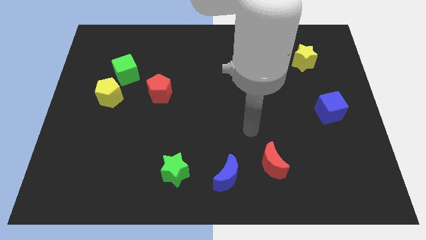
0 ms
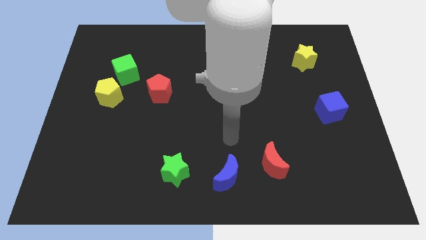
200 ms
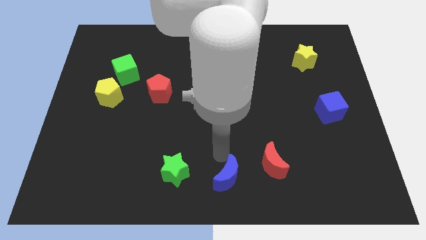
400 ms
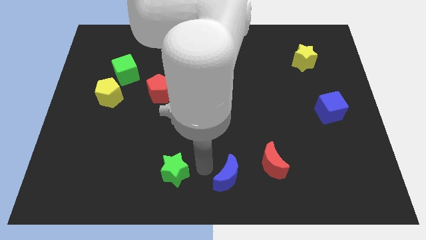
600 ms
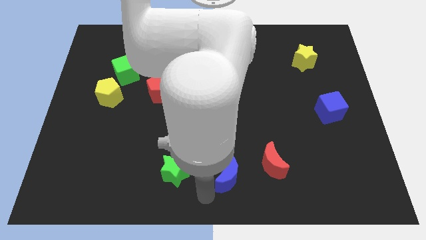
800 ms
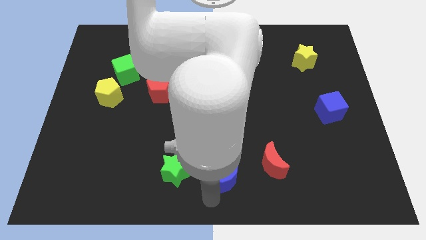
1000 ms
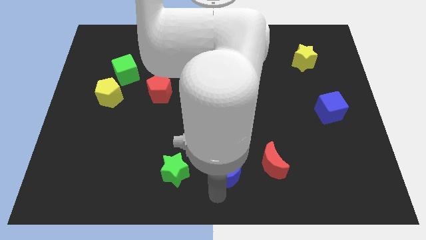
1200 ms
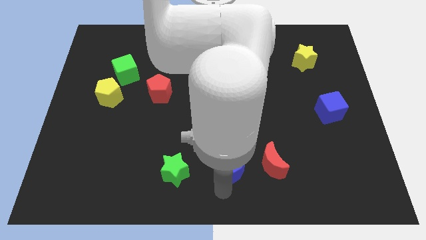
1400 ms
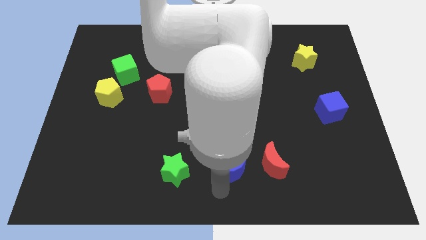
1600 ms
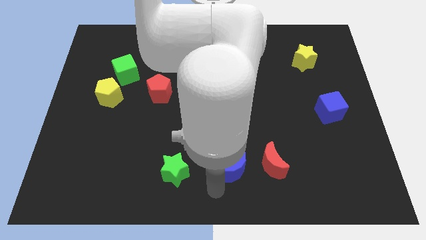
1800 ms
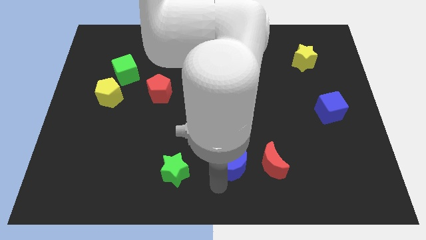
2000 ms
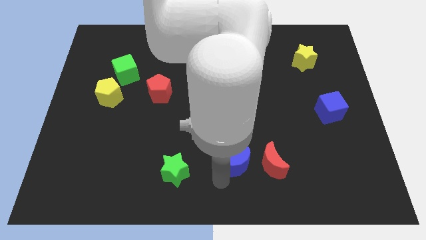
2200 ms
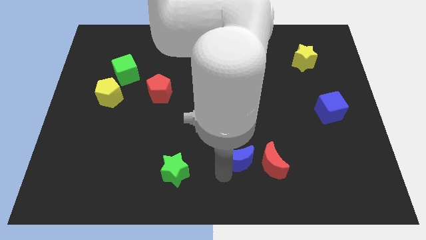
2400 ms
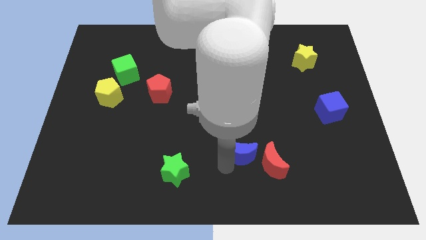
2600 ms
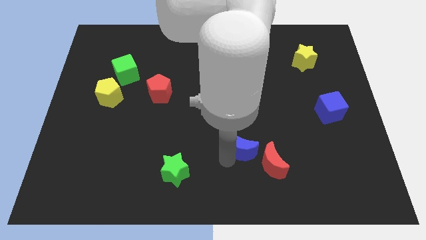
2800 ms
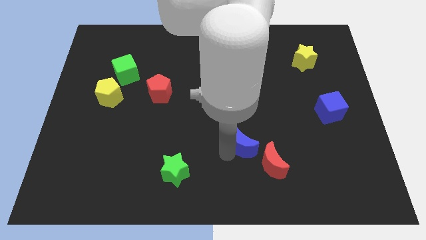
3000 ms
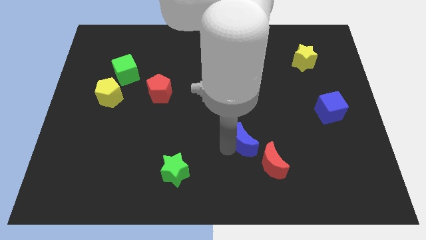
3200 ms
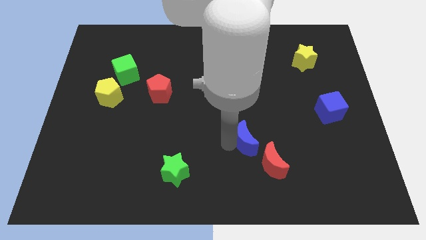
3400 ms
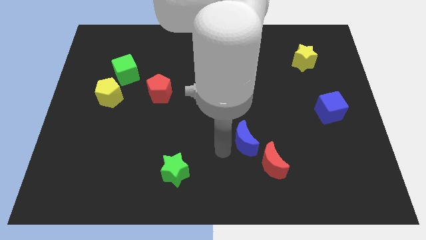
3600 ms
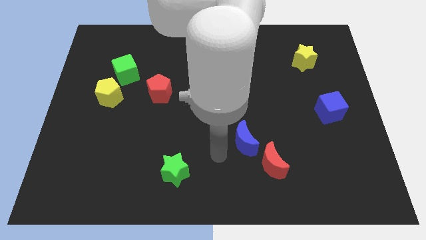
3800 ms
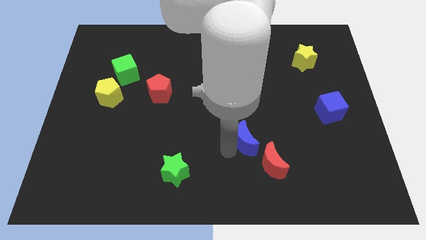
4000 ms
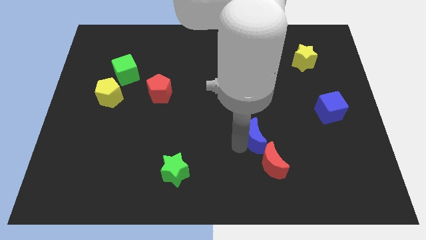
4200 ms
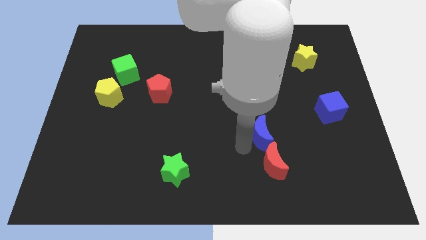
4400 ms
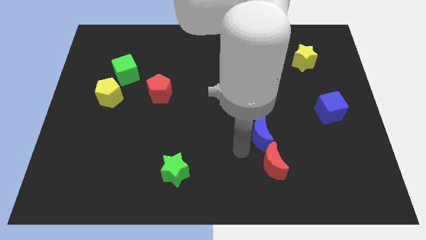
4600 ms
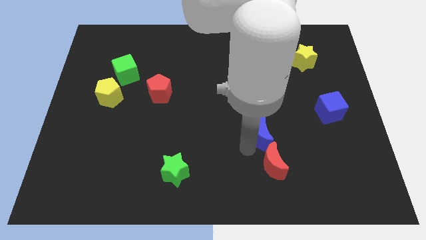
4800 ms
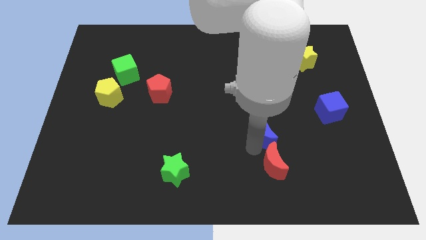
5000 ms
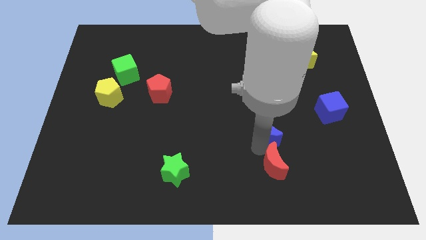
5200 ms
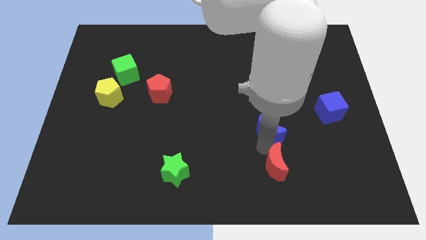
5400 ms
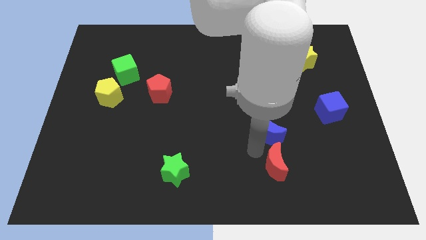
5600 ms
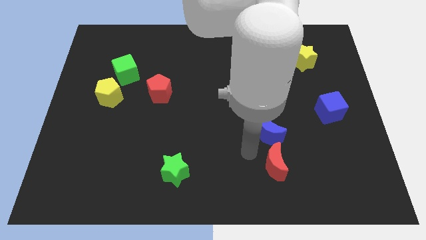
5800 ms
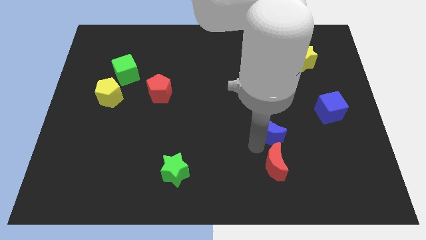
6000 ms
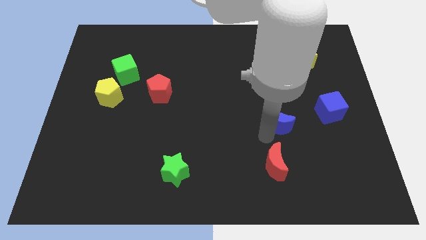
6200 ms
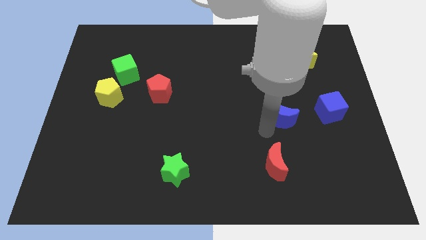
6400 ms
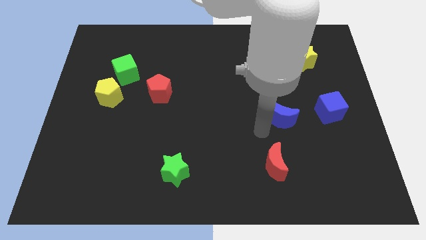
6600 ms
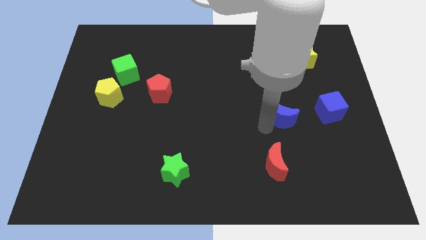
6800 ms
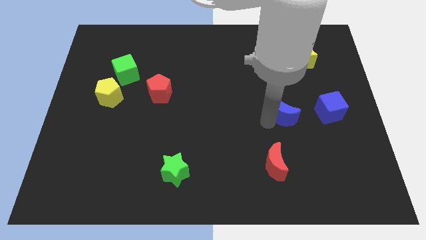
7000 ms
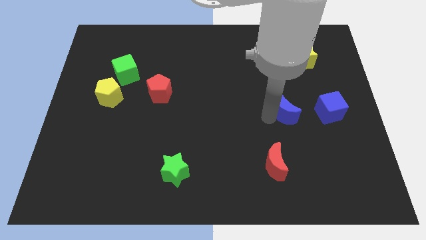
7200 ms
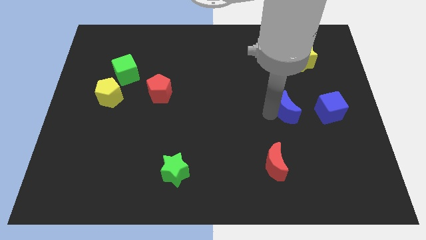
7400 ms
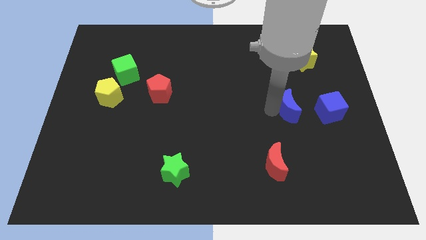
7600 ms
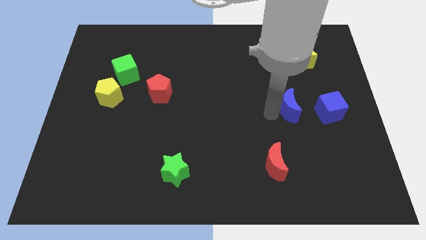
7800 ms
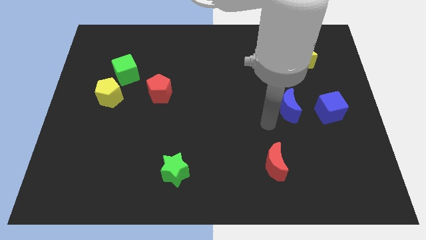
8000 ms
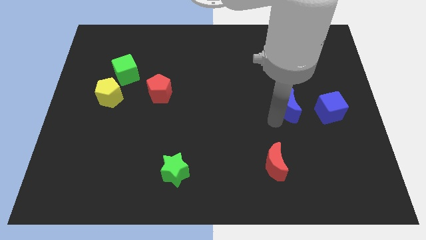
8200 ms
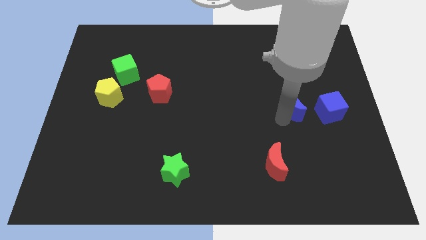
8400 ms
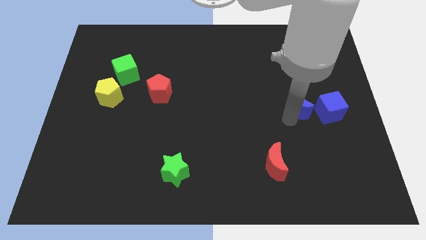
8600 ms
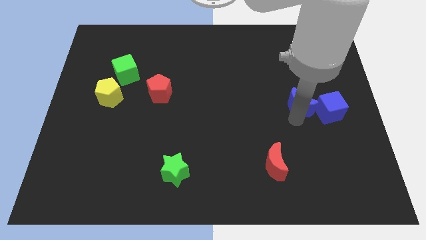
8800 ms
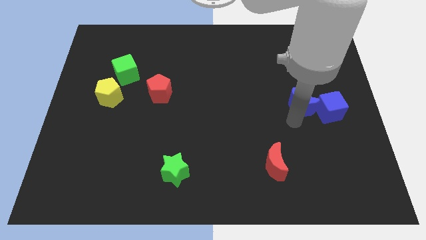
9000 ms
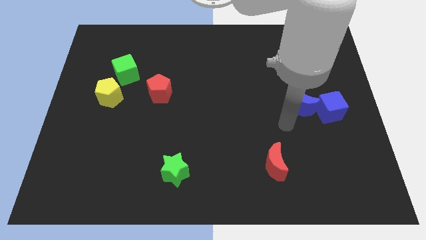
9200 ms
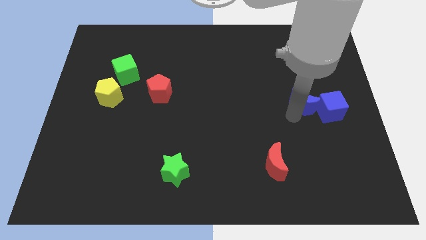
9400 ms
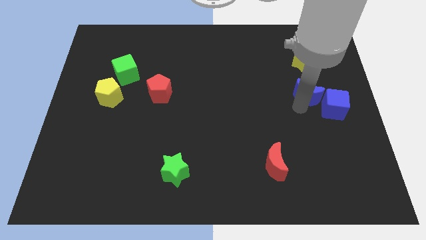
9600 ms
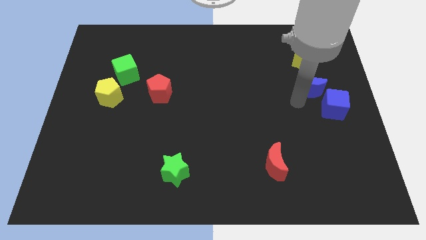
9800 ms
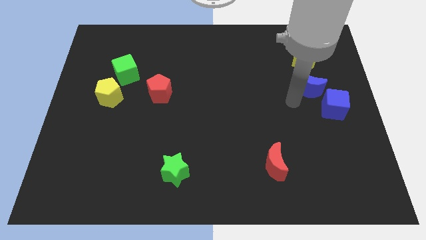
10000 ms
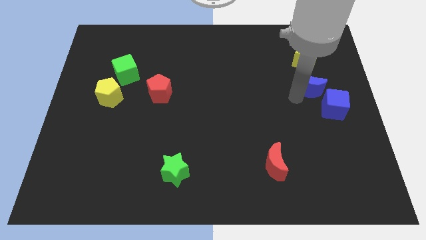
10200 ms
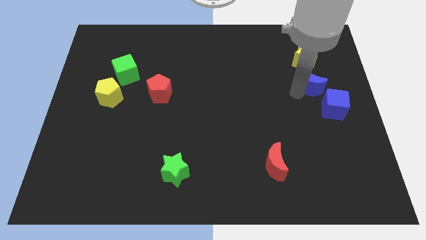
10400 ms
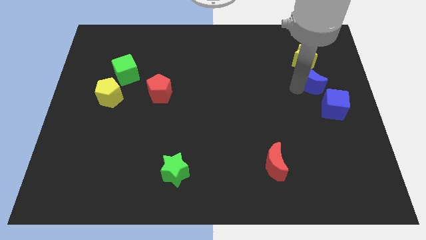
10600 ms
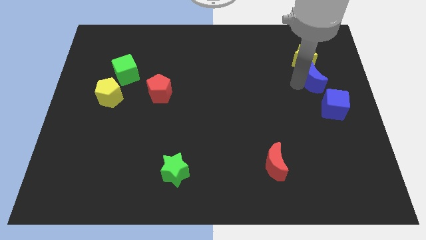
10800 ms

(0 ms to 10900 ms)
put the blue moon to the bottom right of the yellow star

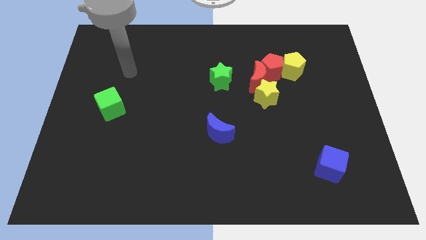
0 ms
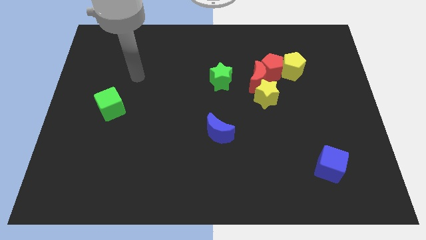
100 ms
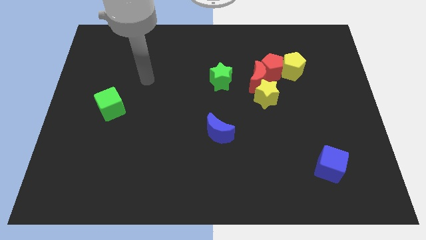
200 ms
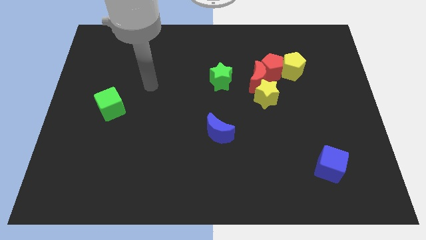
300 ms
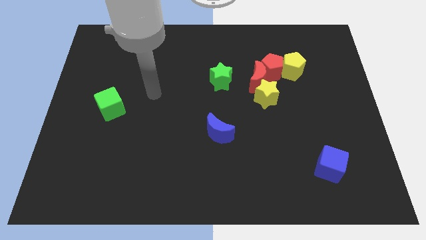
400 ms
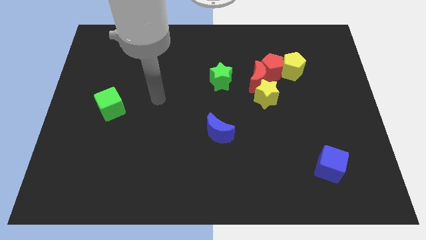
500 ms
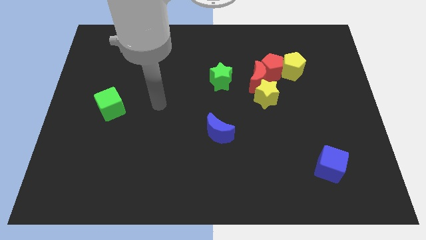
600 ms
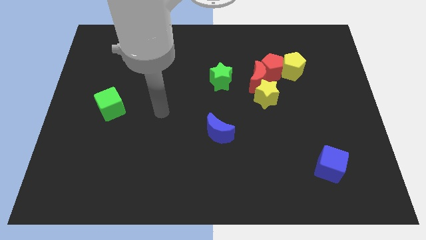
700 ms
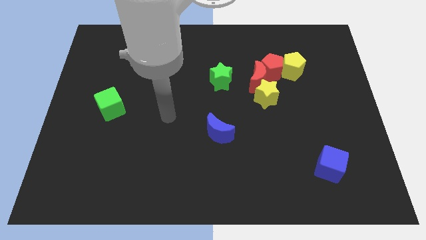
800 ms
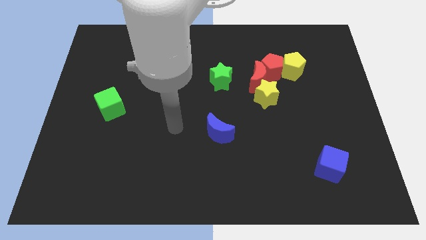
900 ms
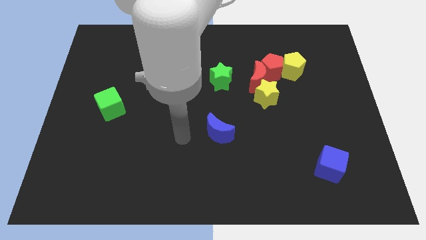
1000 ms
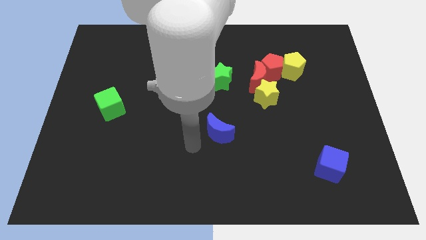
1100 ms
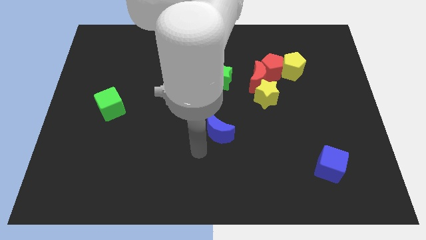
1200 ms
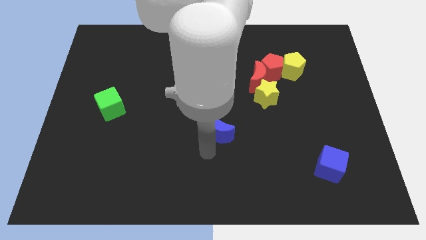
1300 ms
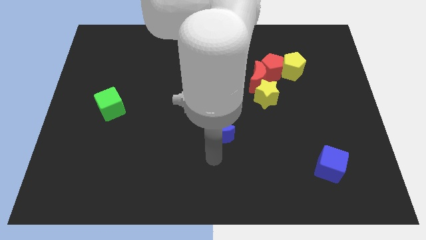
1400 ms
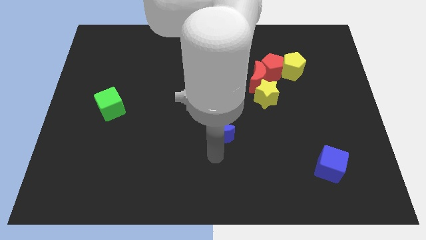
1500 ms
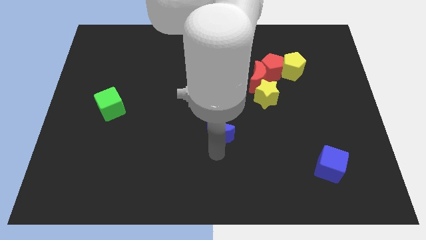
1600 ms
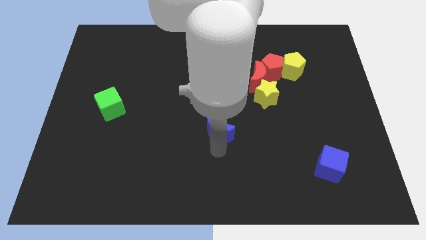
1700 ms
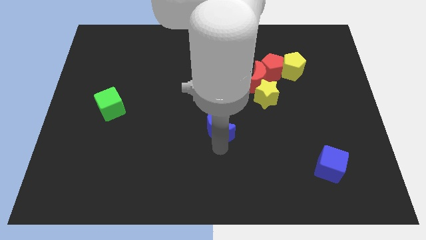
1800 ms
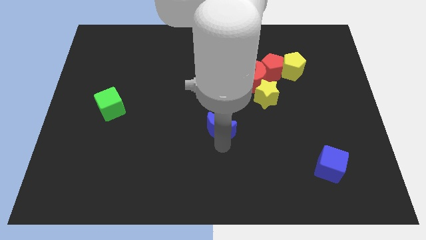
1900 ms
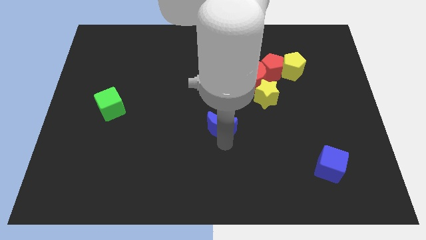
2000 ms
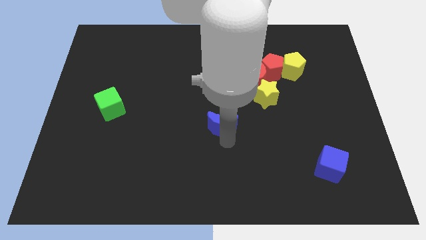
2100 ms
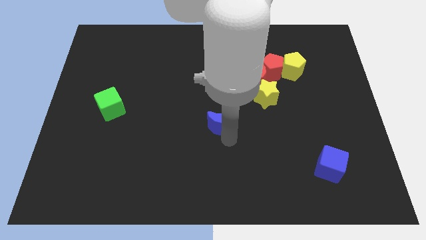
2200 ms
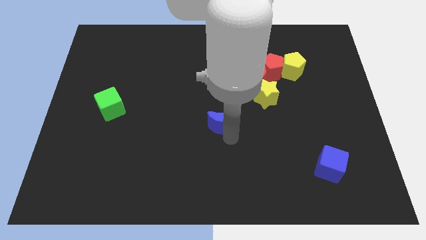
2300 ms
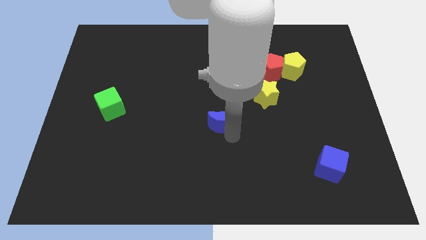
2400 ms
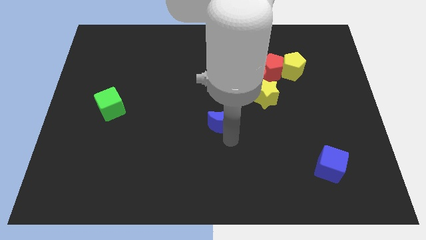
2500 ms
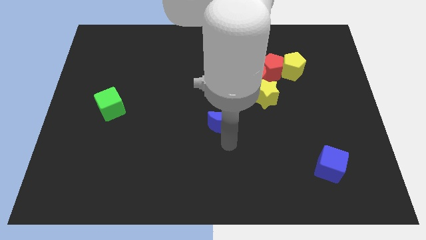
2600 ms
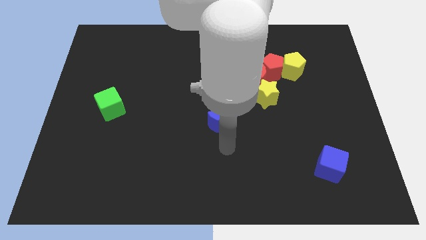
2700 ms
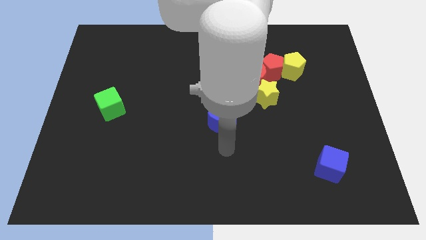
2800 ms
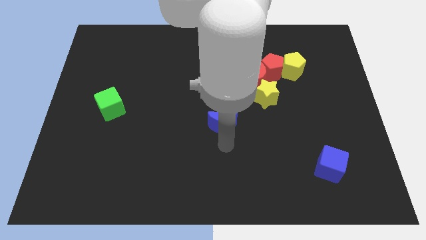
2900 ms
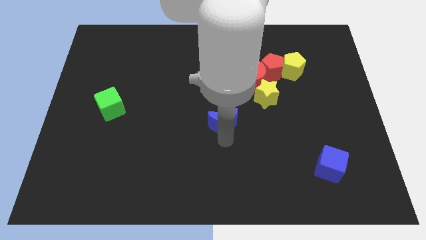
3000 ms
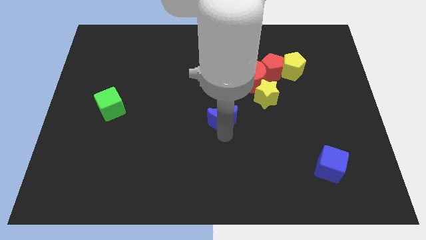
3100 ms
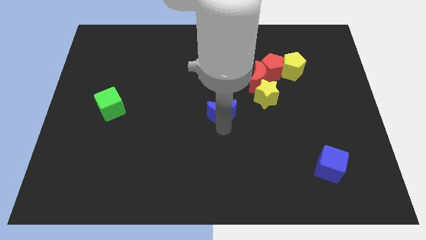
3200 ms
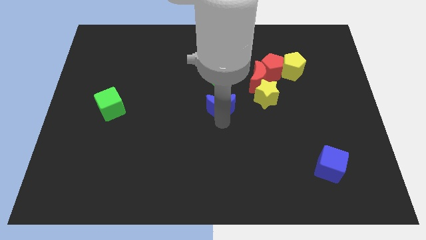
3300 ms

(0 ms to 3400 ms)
push the blue moon to the left side of the yellow star
